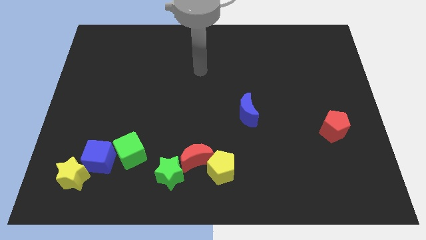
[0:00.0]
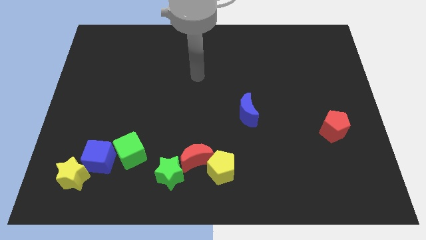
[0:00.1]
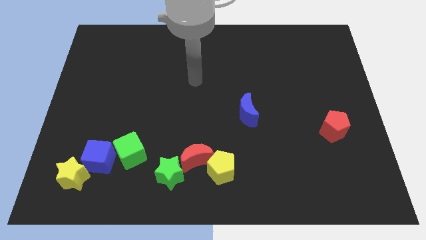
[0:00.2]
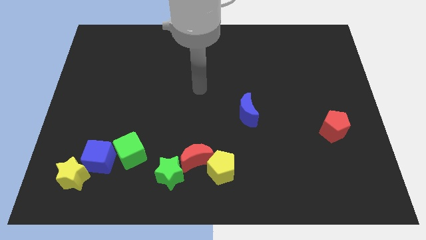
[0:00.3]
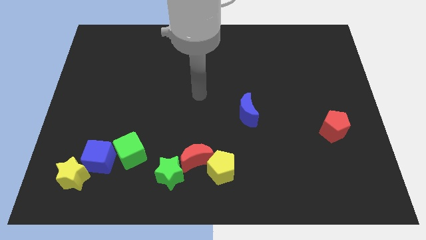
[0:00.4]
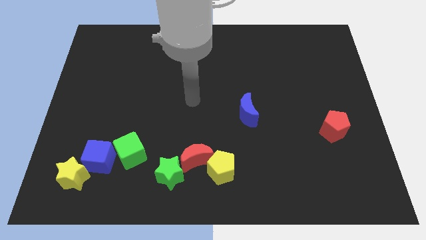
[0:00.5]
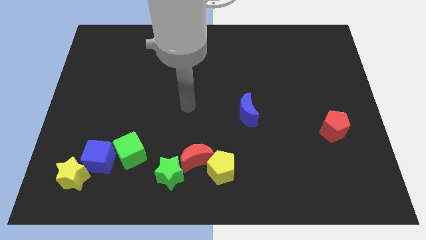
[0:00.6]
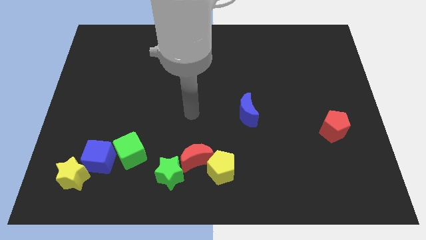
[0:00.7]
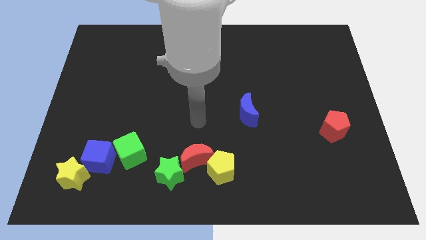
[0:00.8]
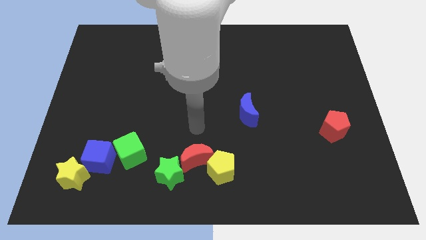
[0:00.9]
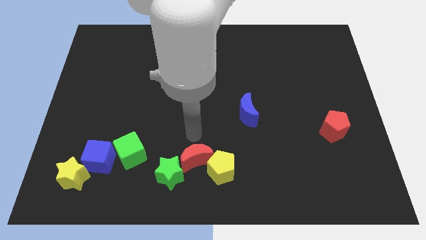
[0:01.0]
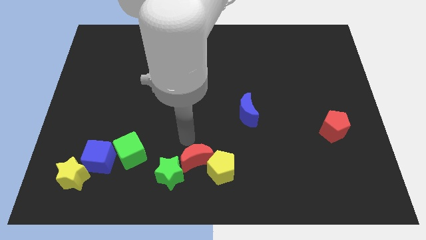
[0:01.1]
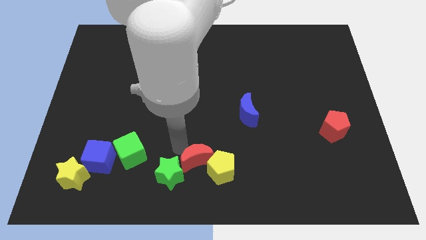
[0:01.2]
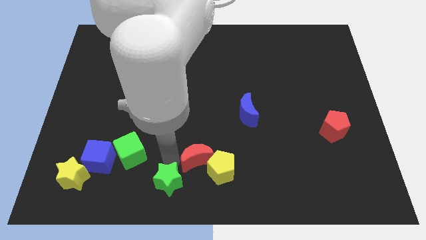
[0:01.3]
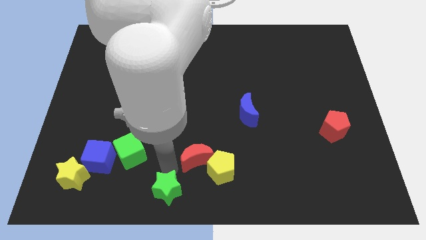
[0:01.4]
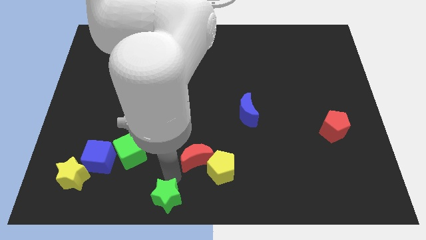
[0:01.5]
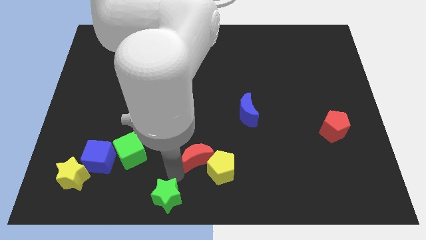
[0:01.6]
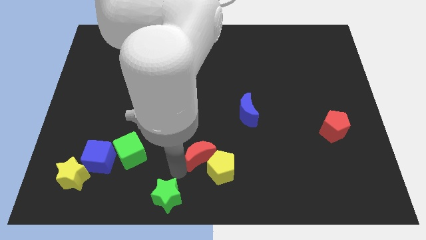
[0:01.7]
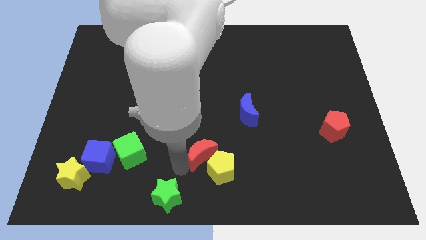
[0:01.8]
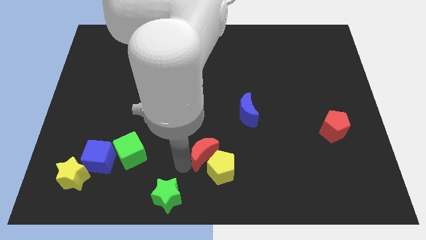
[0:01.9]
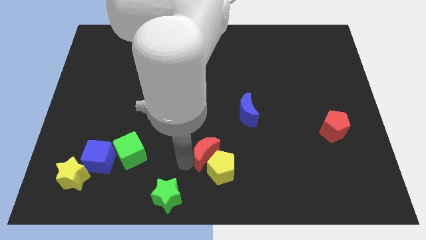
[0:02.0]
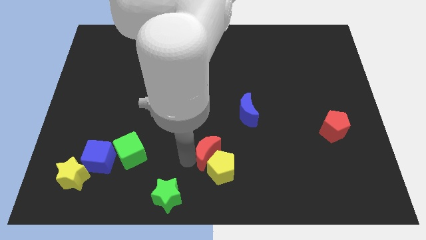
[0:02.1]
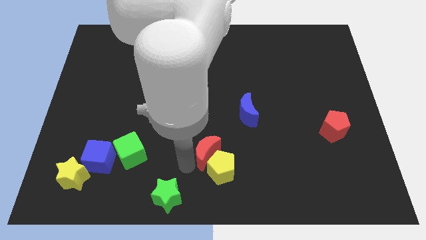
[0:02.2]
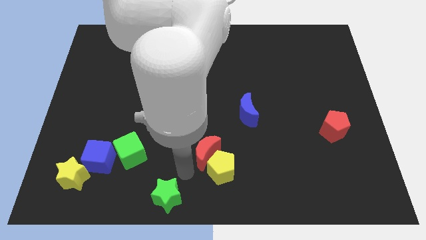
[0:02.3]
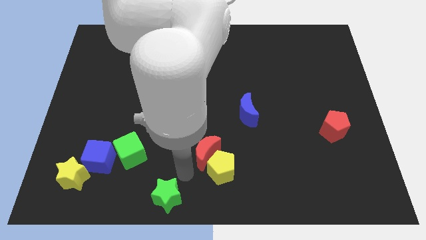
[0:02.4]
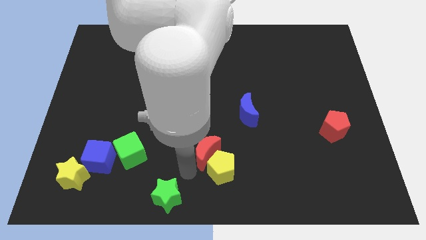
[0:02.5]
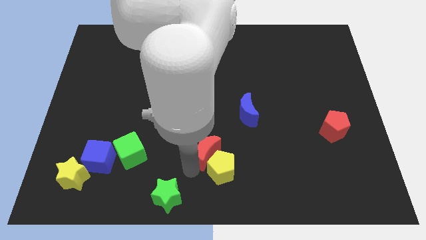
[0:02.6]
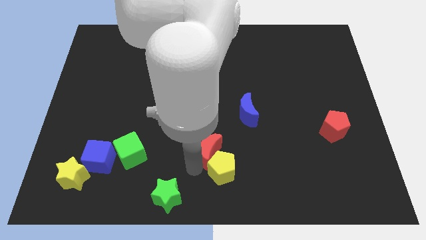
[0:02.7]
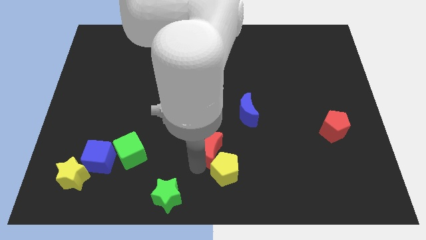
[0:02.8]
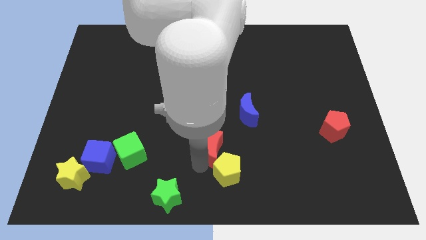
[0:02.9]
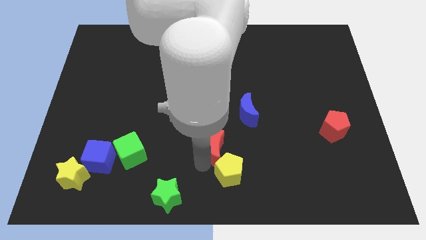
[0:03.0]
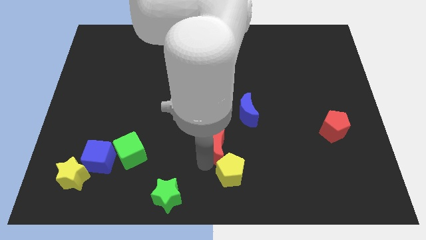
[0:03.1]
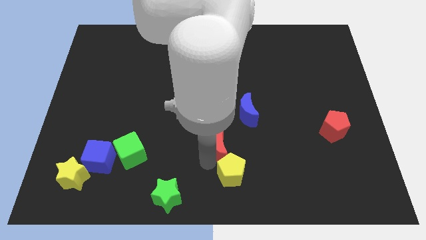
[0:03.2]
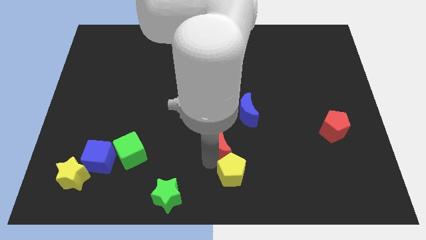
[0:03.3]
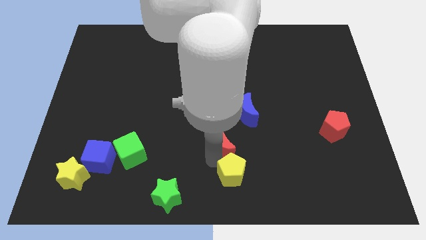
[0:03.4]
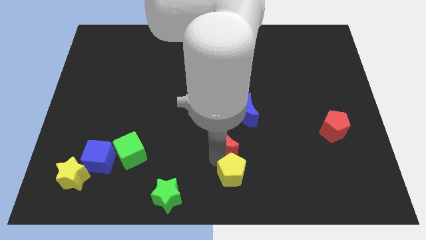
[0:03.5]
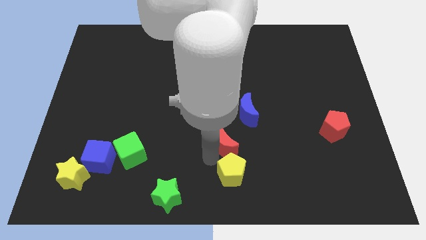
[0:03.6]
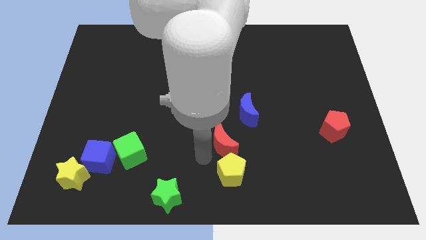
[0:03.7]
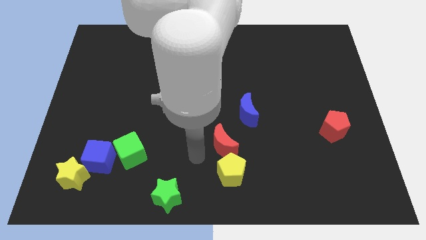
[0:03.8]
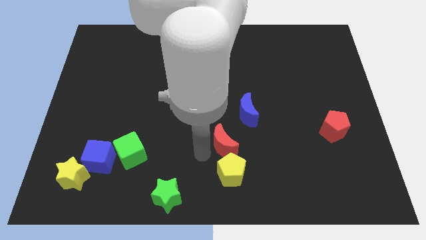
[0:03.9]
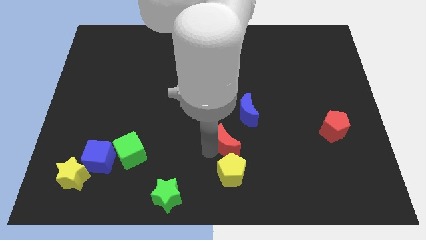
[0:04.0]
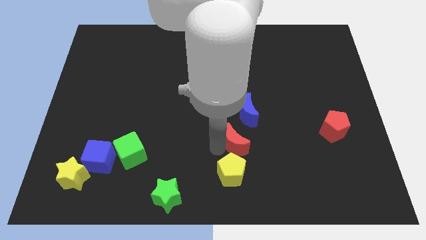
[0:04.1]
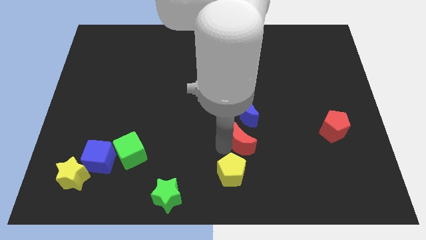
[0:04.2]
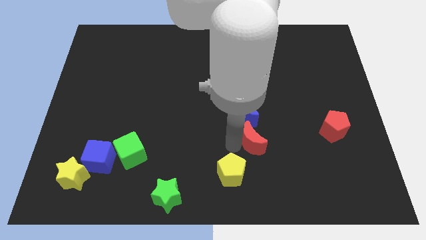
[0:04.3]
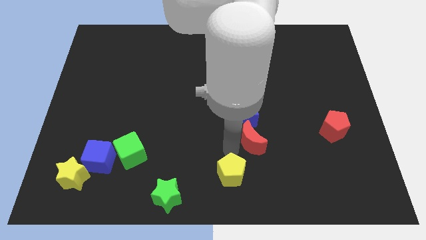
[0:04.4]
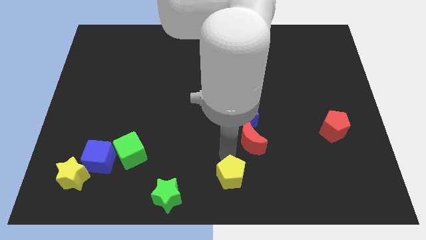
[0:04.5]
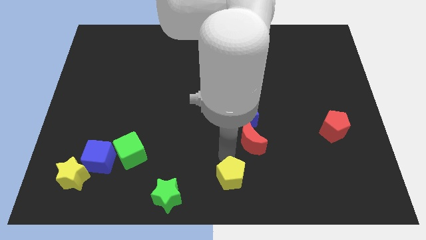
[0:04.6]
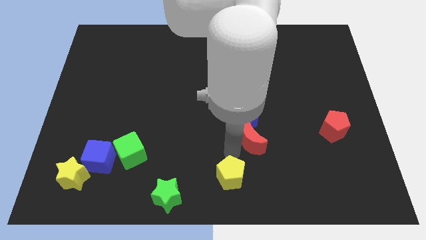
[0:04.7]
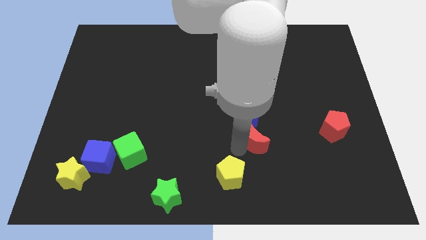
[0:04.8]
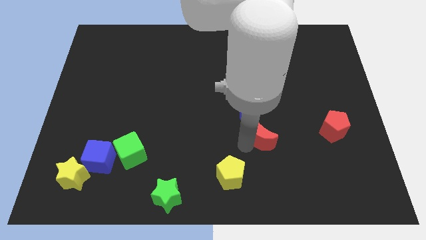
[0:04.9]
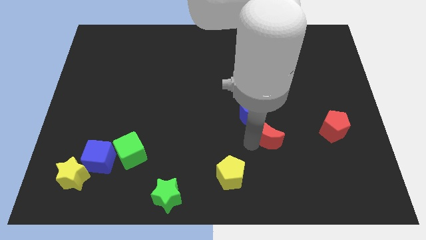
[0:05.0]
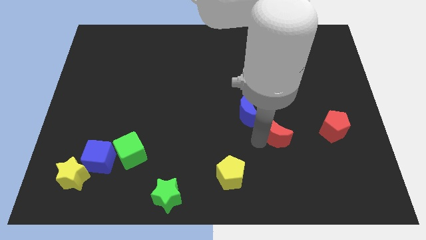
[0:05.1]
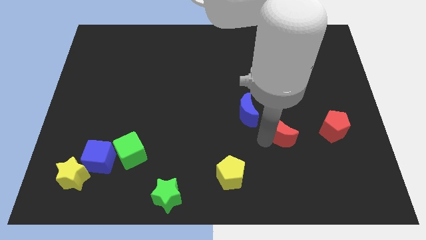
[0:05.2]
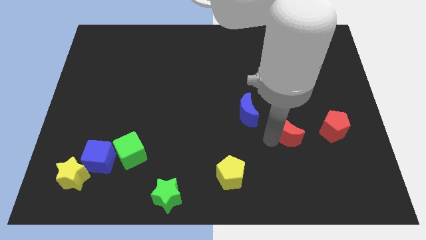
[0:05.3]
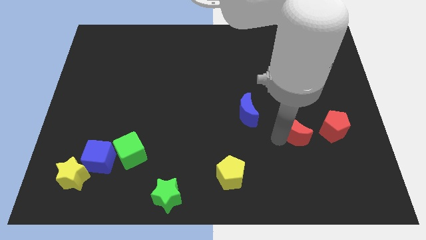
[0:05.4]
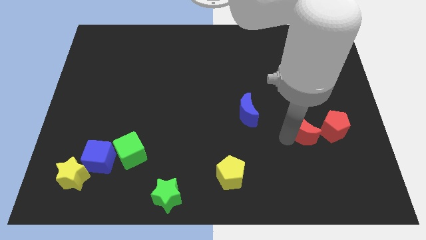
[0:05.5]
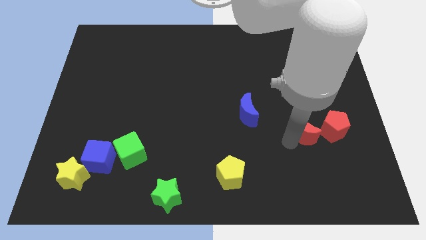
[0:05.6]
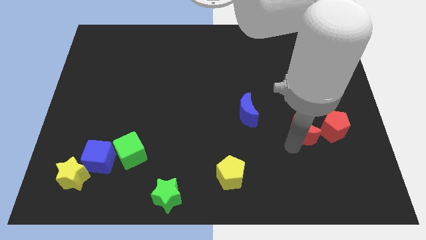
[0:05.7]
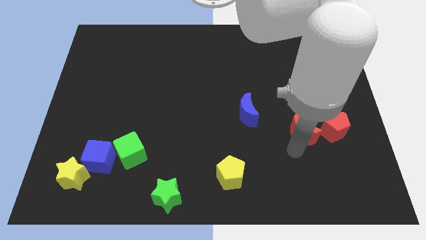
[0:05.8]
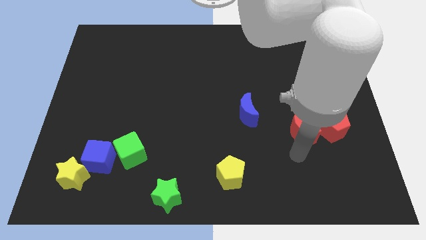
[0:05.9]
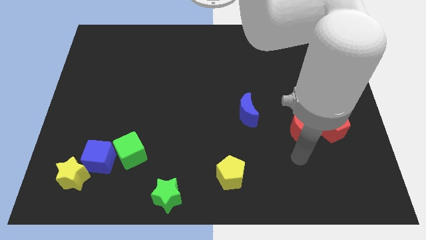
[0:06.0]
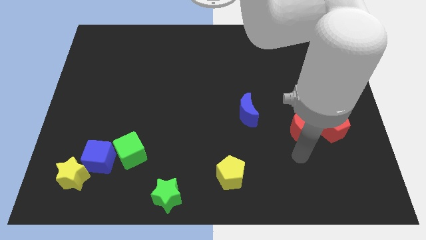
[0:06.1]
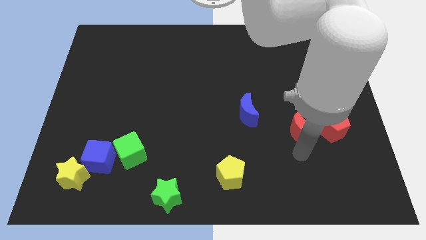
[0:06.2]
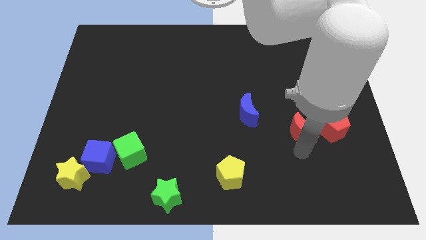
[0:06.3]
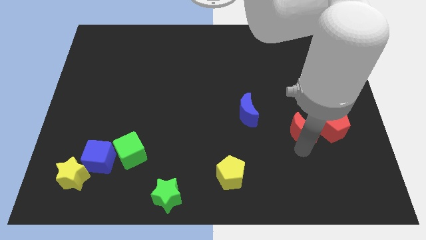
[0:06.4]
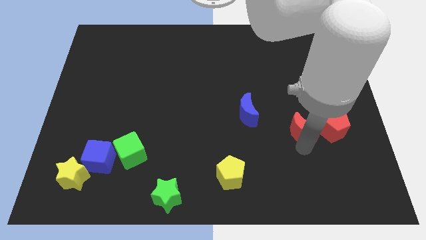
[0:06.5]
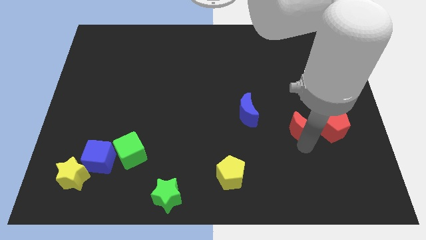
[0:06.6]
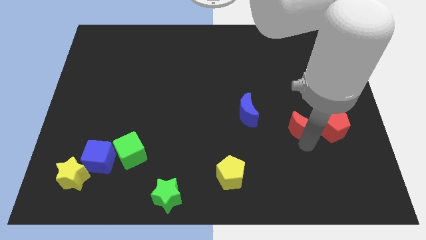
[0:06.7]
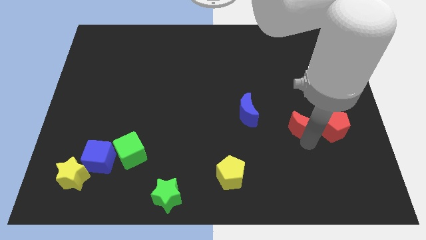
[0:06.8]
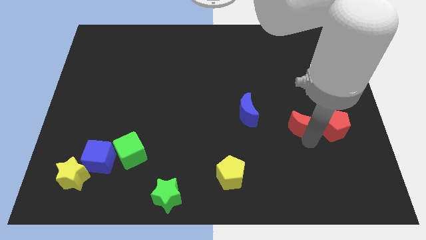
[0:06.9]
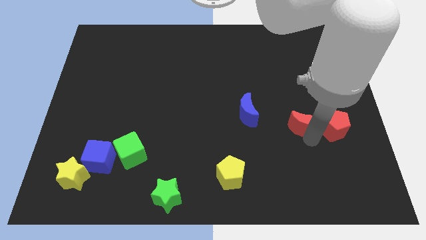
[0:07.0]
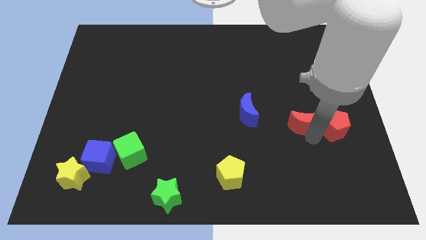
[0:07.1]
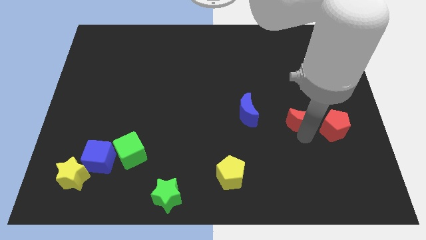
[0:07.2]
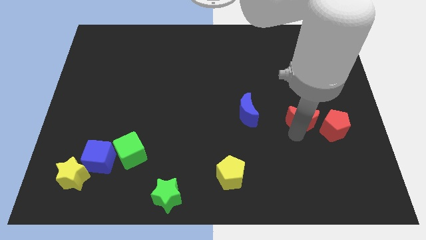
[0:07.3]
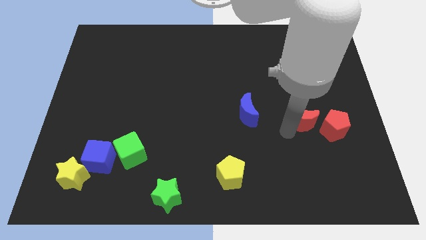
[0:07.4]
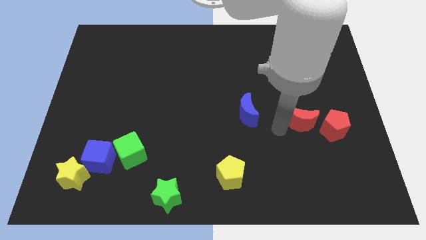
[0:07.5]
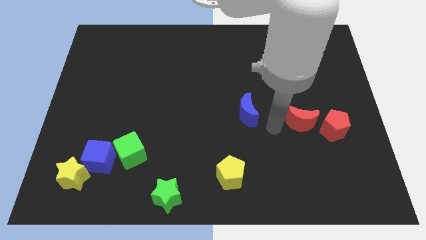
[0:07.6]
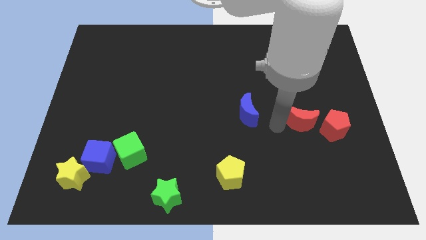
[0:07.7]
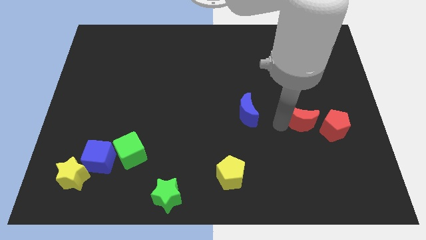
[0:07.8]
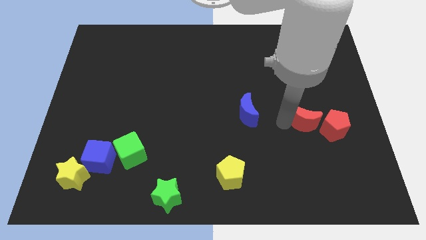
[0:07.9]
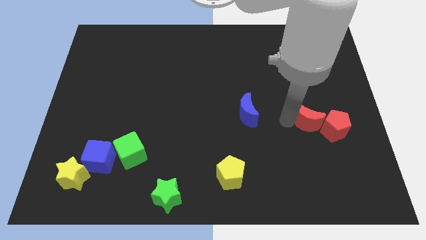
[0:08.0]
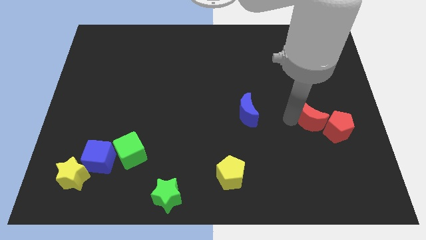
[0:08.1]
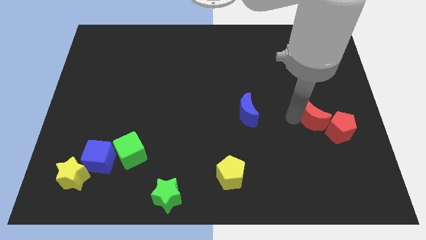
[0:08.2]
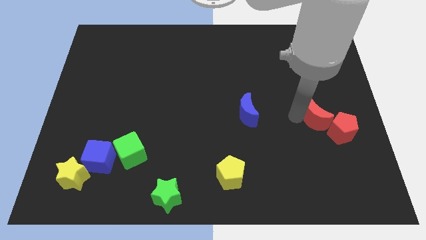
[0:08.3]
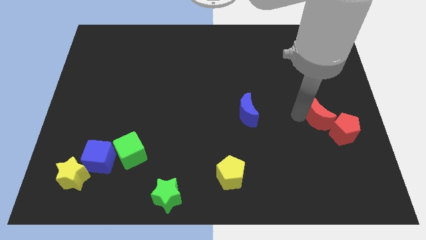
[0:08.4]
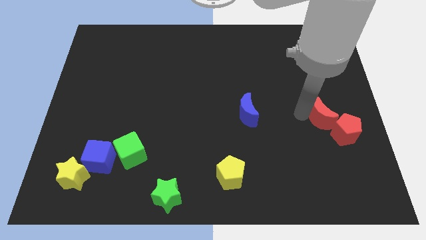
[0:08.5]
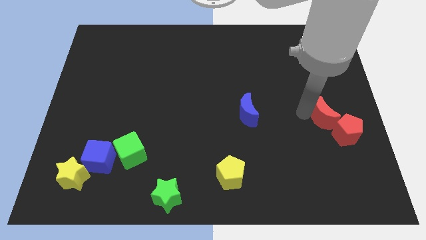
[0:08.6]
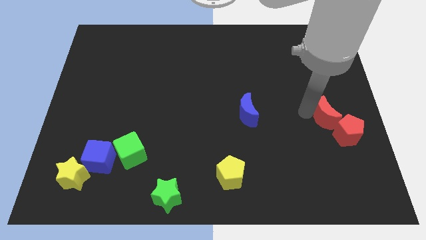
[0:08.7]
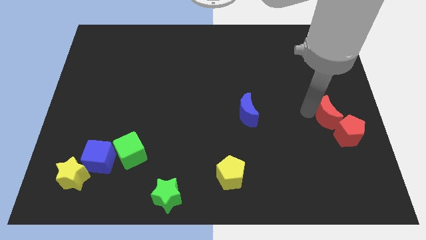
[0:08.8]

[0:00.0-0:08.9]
move the red moon to the center right
